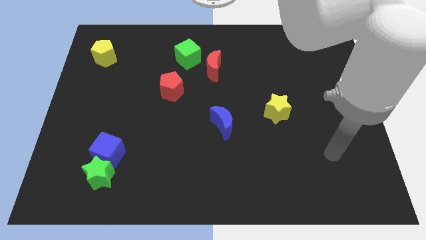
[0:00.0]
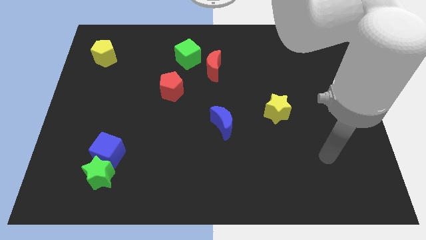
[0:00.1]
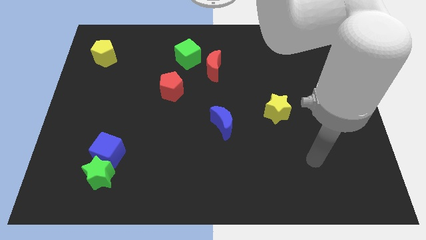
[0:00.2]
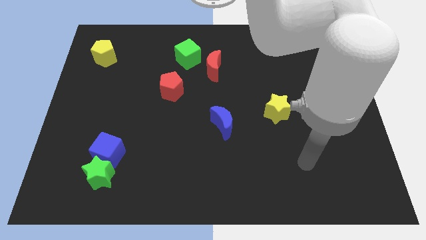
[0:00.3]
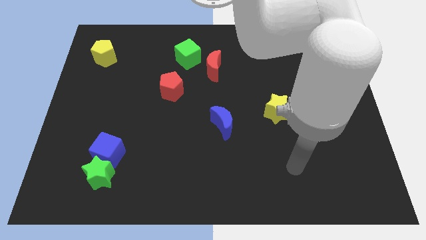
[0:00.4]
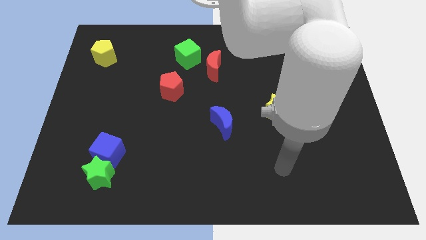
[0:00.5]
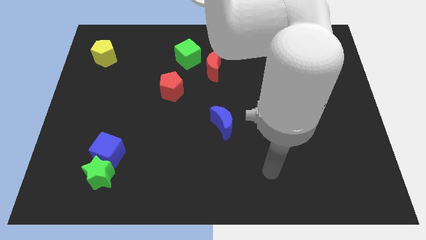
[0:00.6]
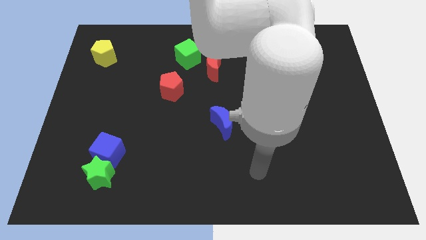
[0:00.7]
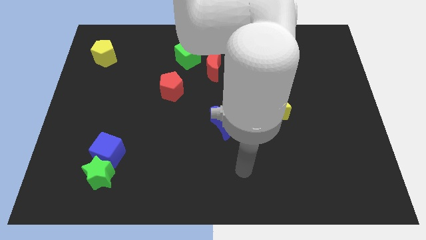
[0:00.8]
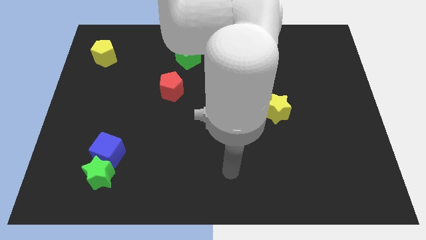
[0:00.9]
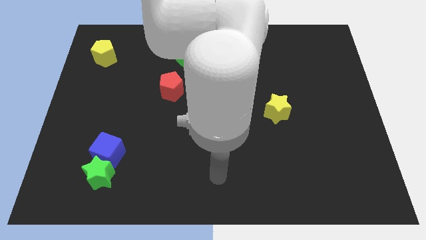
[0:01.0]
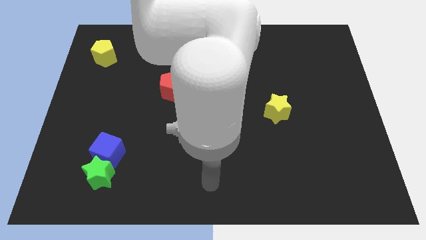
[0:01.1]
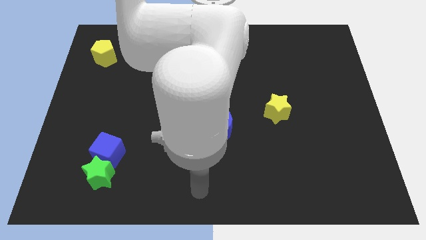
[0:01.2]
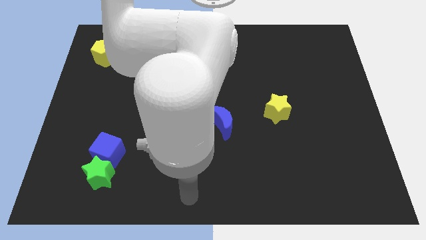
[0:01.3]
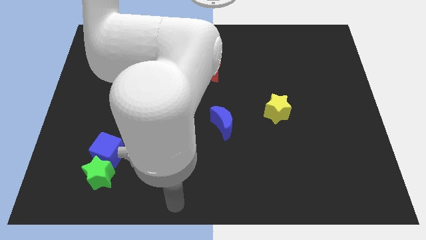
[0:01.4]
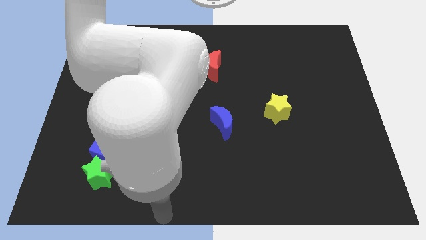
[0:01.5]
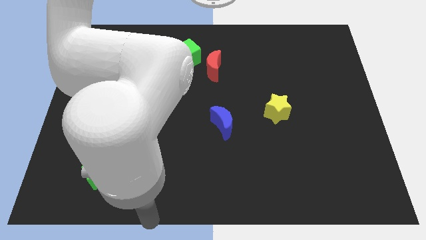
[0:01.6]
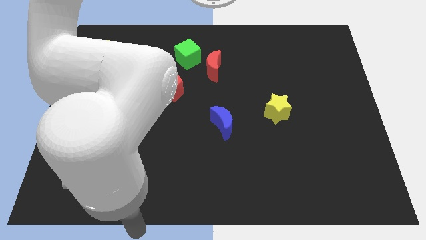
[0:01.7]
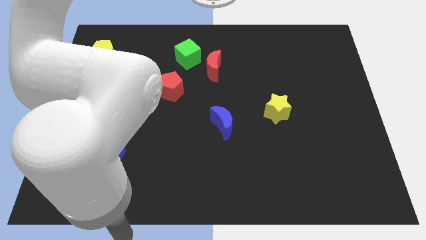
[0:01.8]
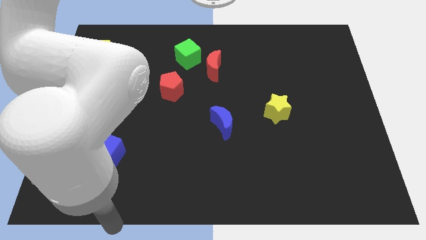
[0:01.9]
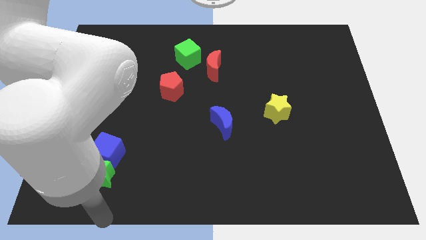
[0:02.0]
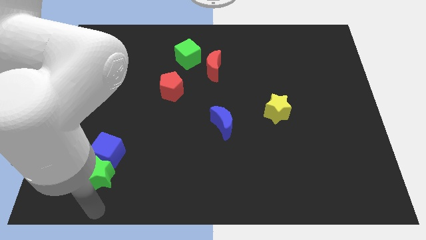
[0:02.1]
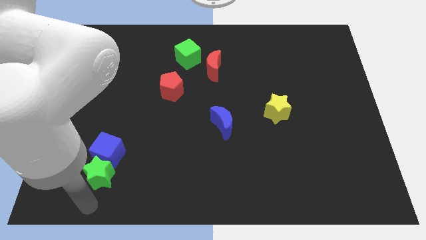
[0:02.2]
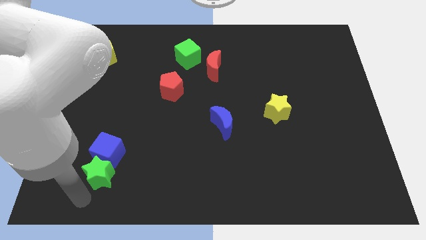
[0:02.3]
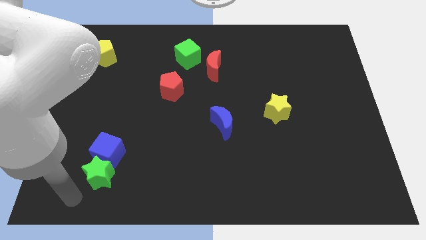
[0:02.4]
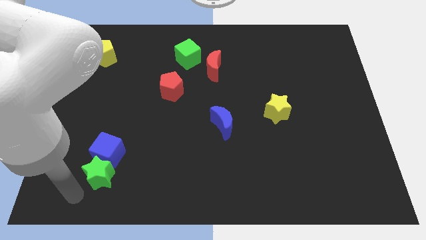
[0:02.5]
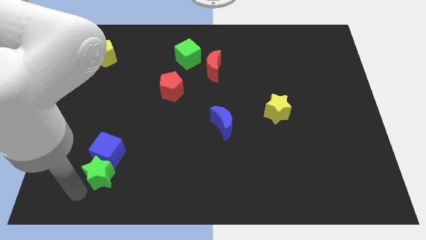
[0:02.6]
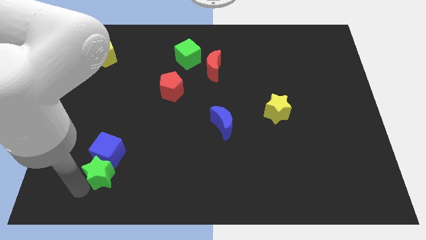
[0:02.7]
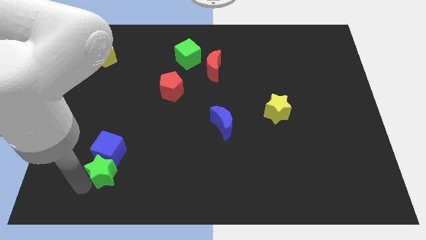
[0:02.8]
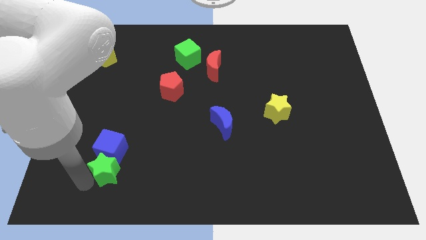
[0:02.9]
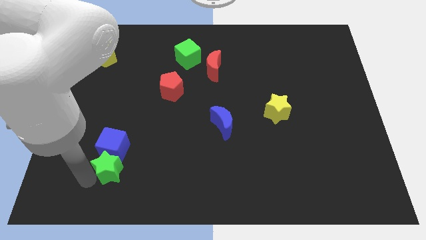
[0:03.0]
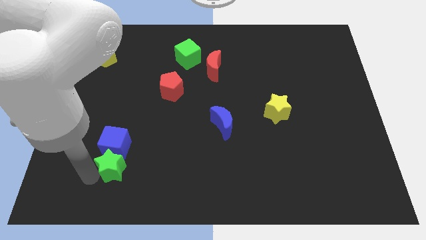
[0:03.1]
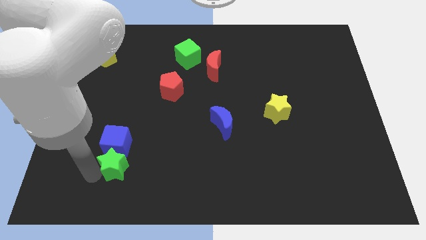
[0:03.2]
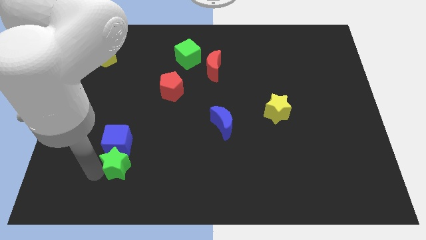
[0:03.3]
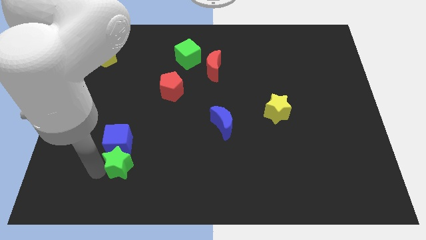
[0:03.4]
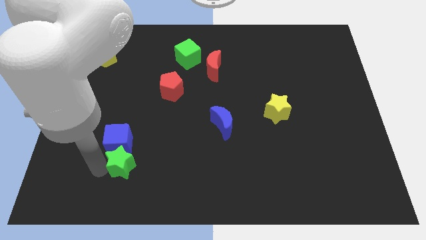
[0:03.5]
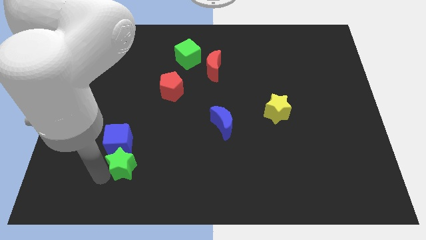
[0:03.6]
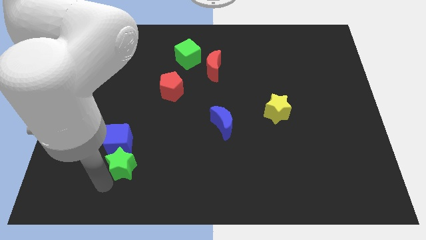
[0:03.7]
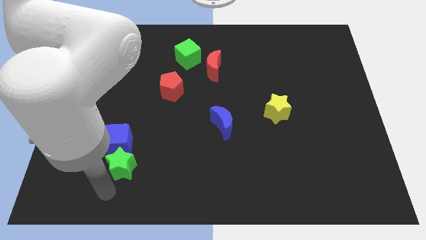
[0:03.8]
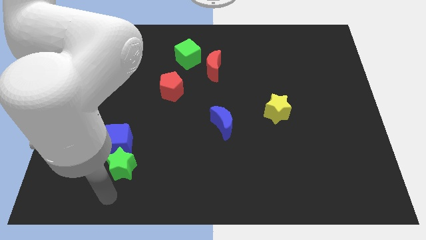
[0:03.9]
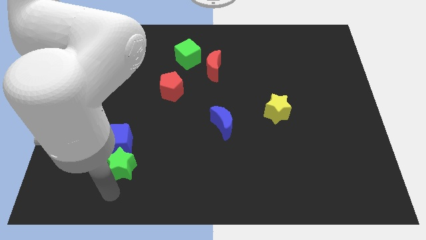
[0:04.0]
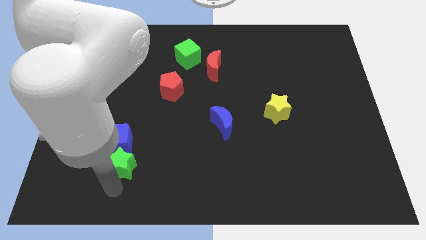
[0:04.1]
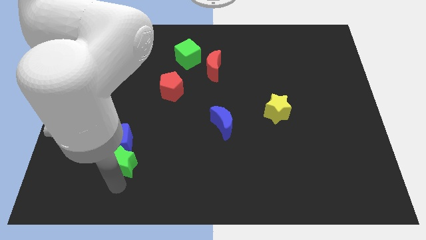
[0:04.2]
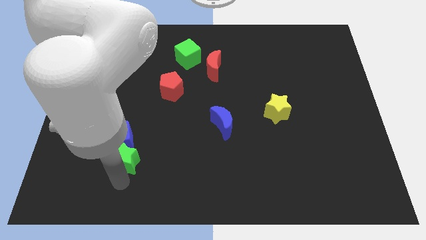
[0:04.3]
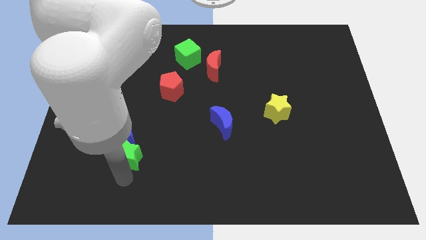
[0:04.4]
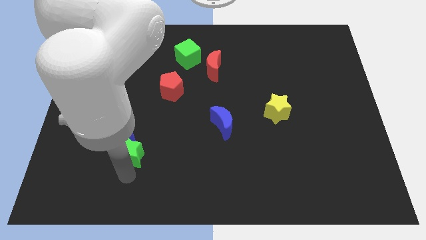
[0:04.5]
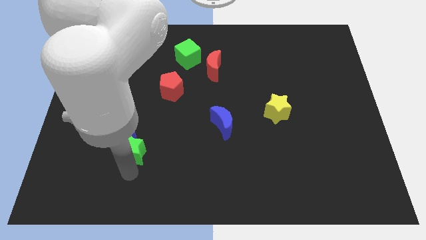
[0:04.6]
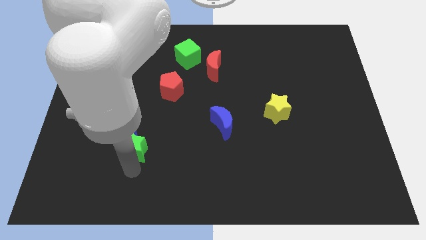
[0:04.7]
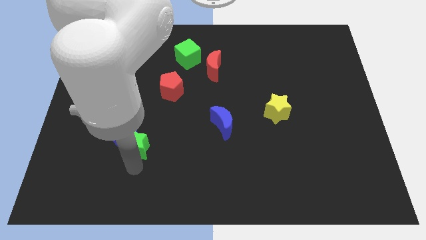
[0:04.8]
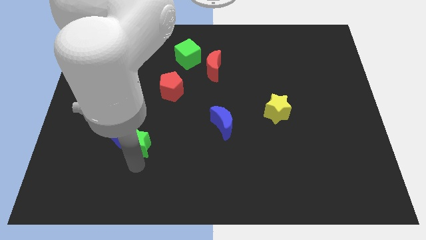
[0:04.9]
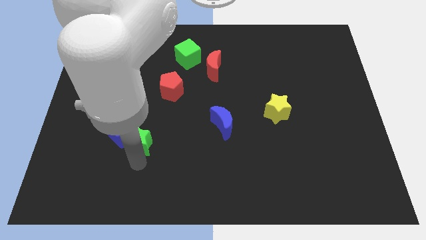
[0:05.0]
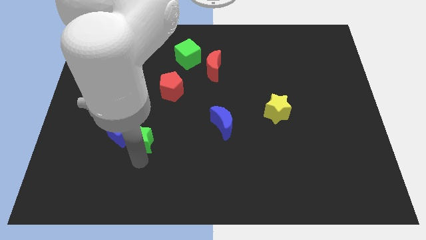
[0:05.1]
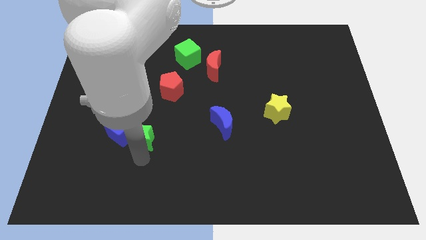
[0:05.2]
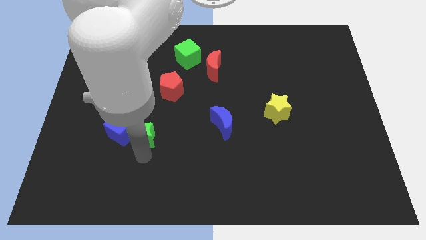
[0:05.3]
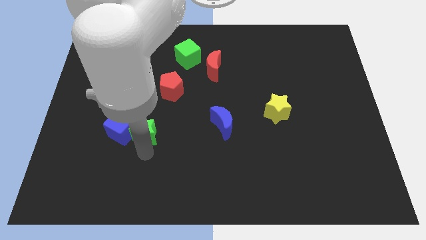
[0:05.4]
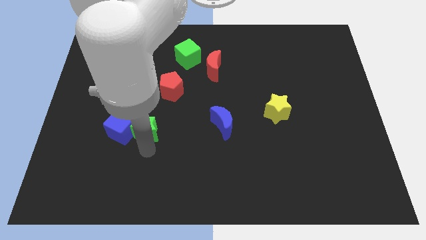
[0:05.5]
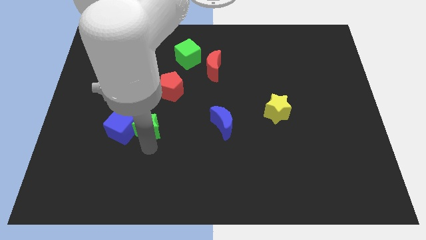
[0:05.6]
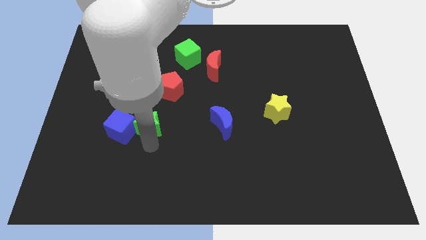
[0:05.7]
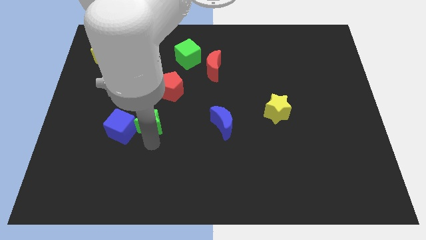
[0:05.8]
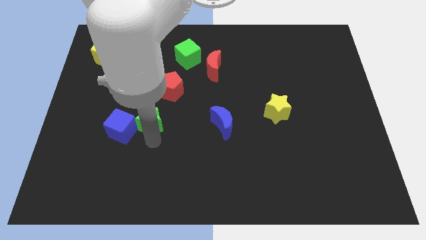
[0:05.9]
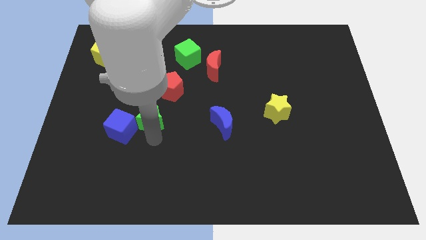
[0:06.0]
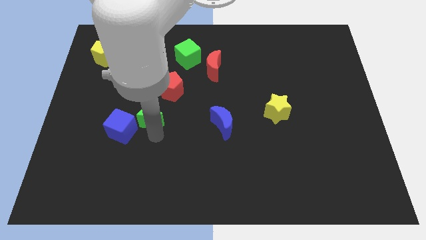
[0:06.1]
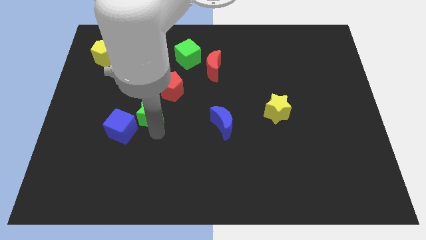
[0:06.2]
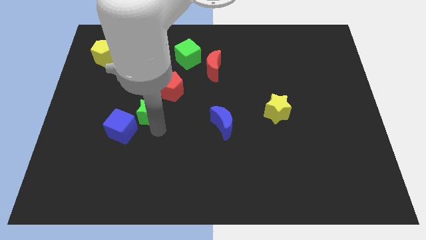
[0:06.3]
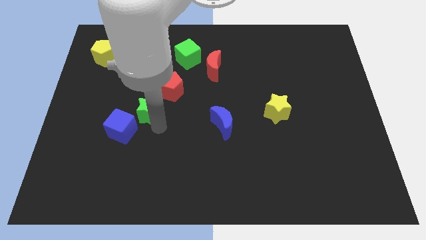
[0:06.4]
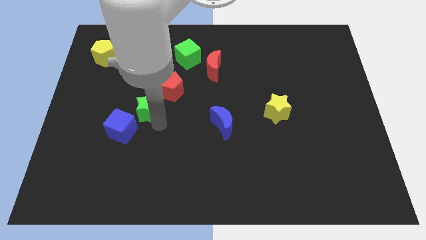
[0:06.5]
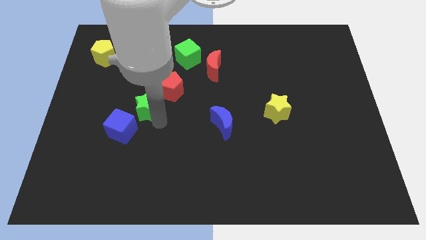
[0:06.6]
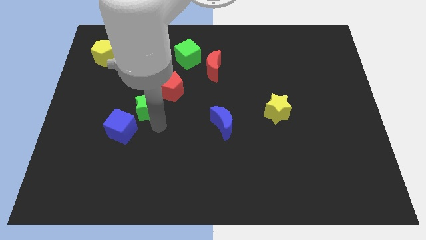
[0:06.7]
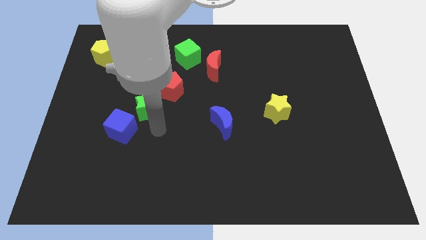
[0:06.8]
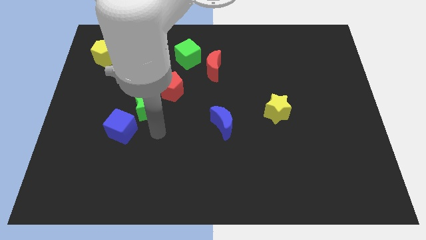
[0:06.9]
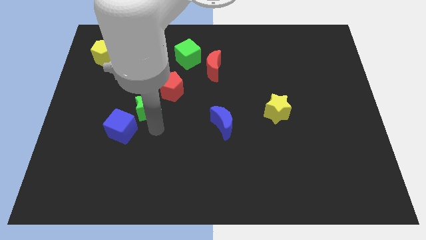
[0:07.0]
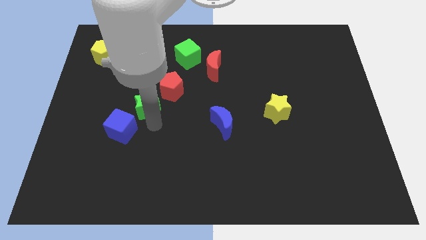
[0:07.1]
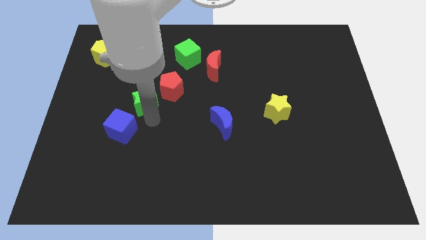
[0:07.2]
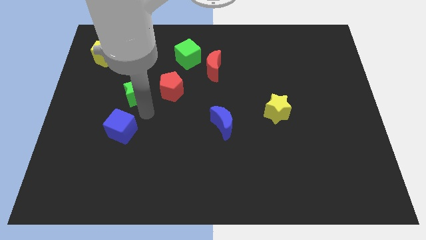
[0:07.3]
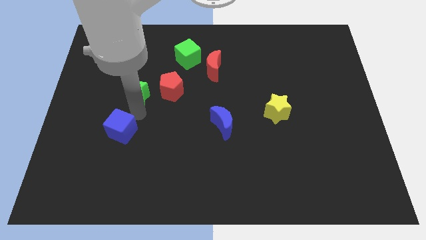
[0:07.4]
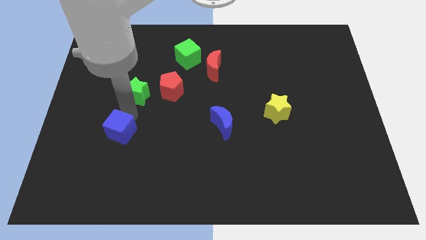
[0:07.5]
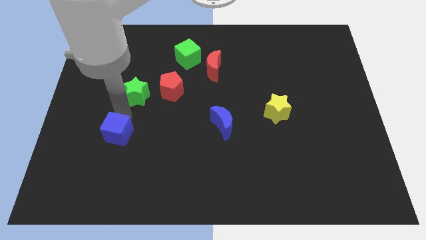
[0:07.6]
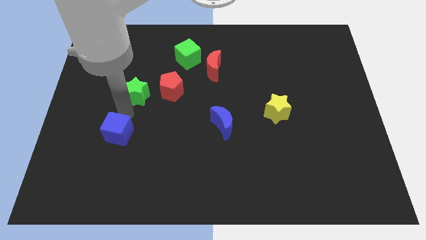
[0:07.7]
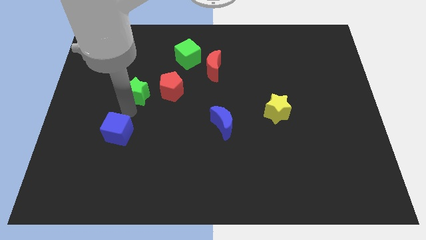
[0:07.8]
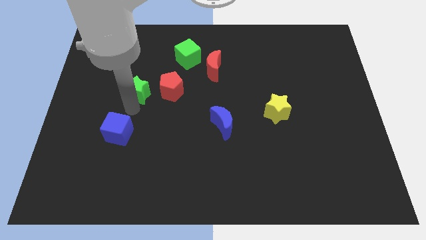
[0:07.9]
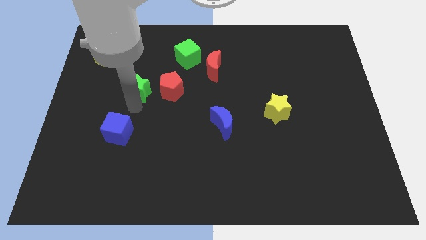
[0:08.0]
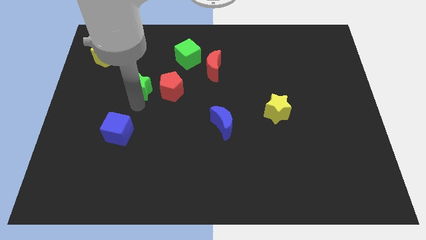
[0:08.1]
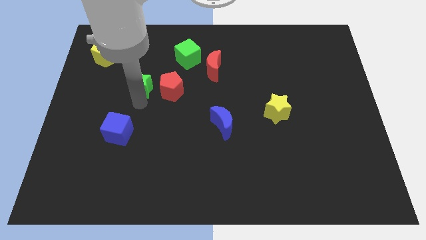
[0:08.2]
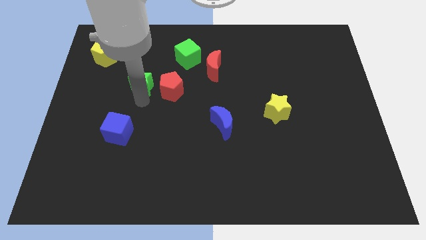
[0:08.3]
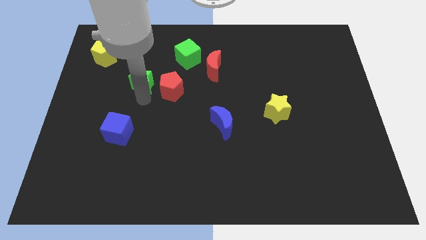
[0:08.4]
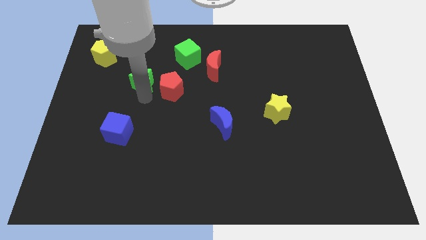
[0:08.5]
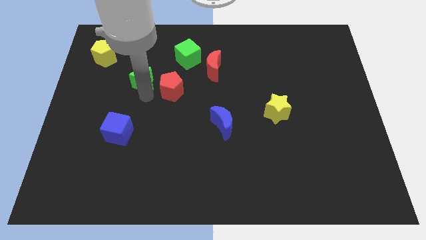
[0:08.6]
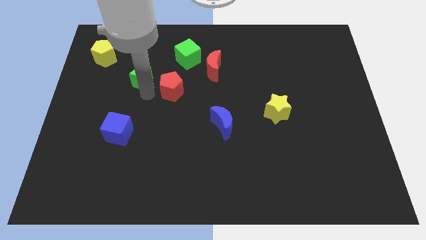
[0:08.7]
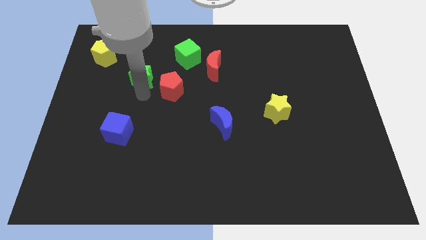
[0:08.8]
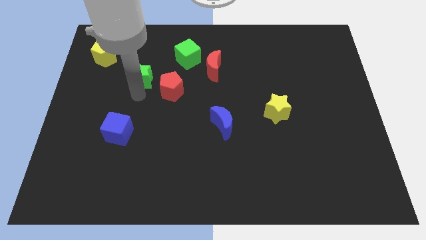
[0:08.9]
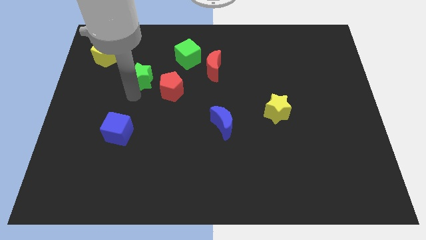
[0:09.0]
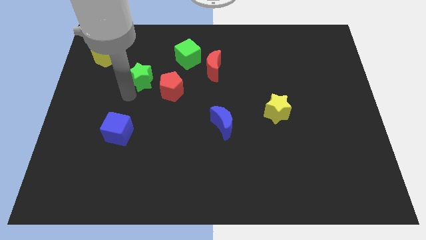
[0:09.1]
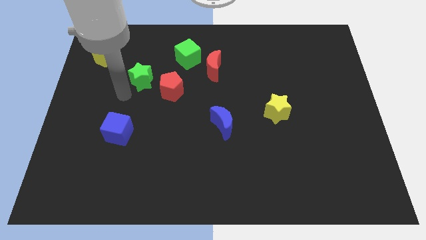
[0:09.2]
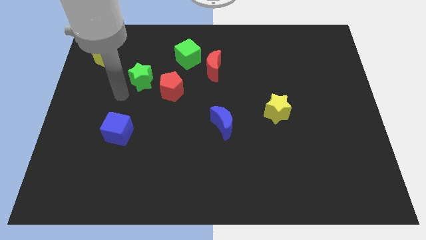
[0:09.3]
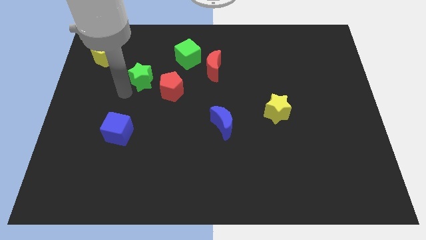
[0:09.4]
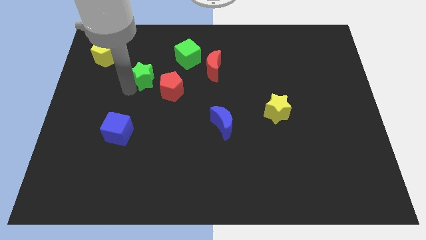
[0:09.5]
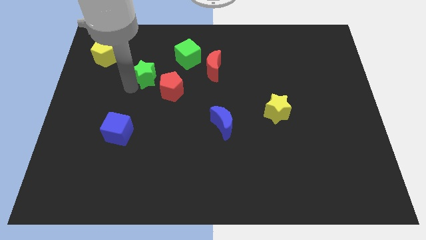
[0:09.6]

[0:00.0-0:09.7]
move the green star to the bottom left side of the green cube
